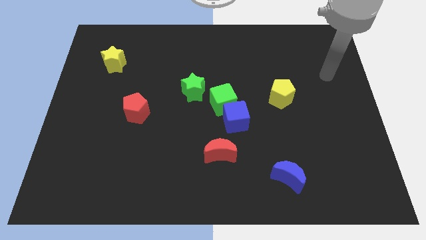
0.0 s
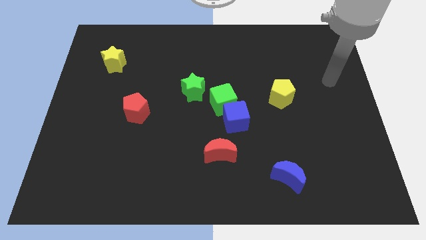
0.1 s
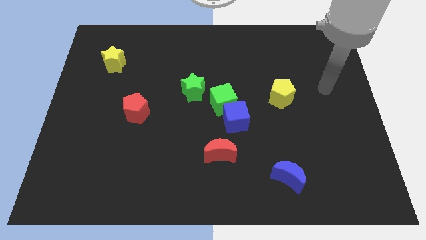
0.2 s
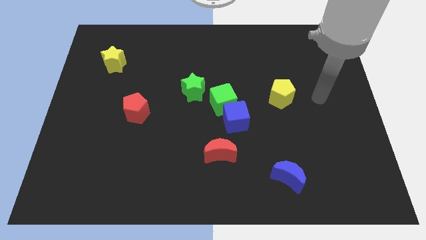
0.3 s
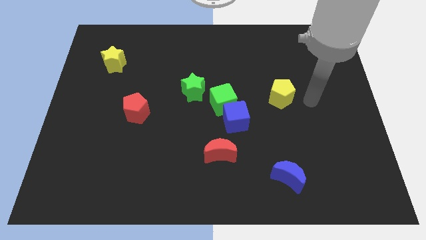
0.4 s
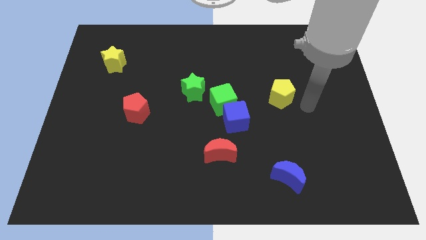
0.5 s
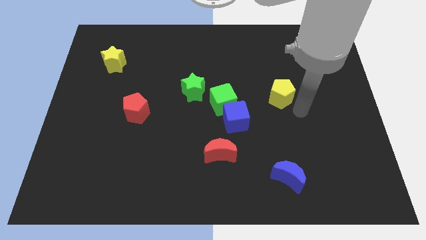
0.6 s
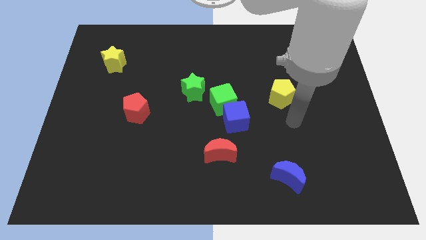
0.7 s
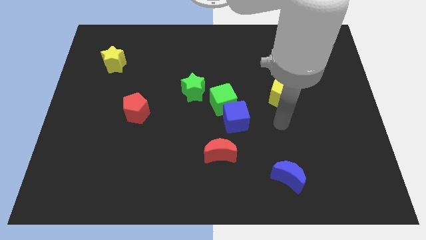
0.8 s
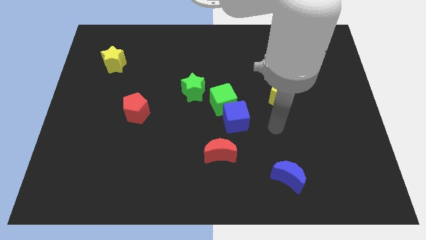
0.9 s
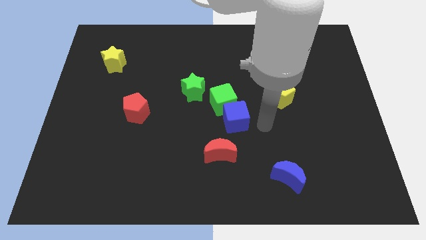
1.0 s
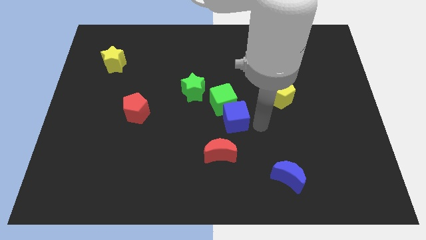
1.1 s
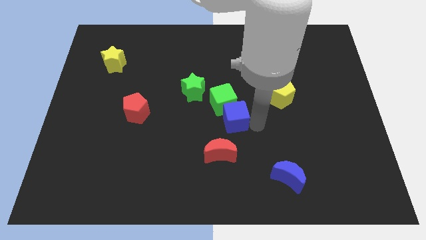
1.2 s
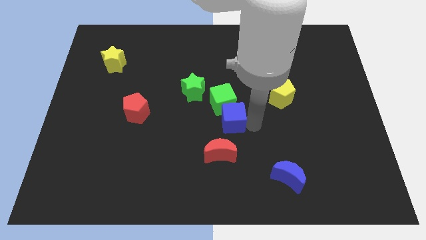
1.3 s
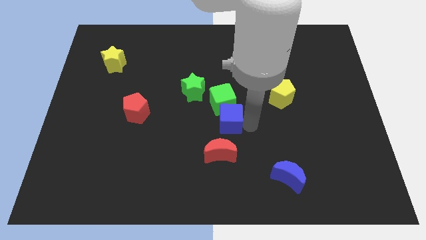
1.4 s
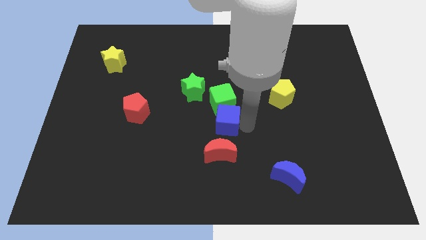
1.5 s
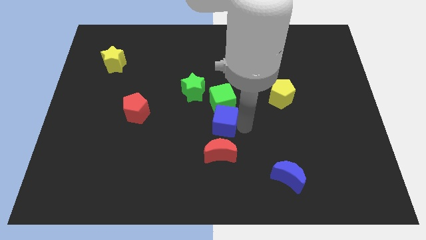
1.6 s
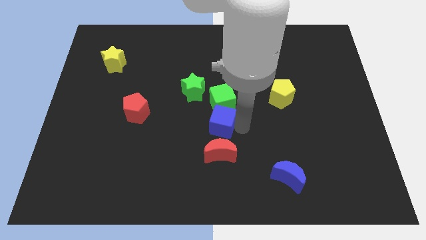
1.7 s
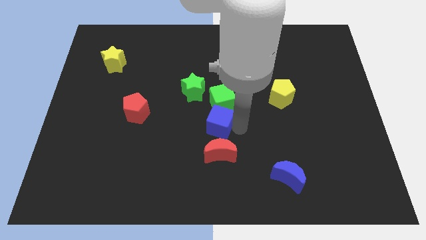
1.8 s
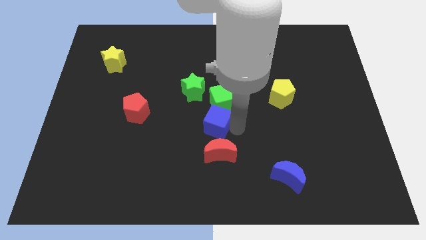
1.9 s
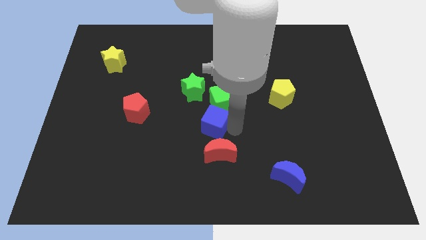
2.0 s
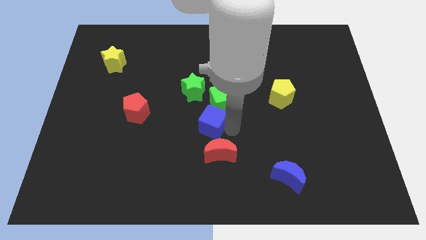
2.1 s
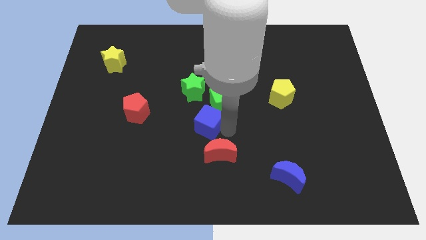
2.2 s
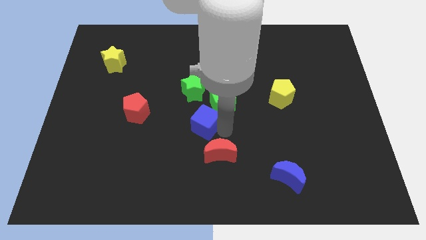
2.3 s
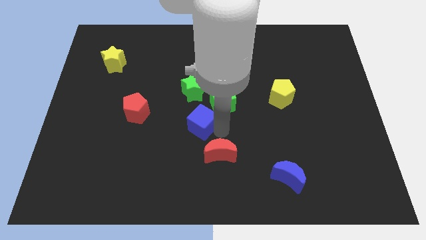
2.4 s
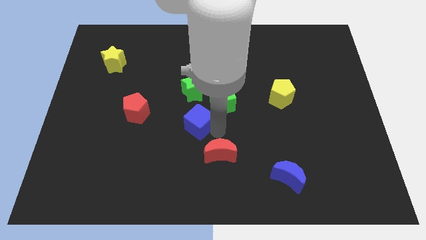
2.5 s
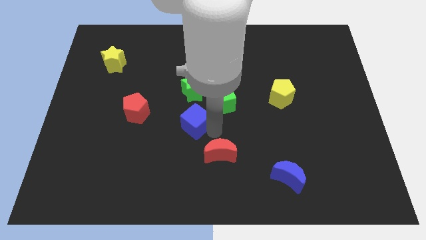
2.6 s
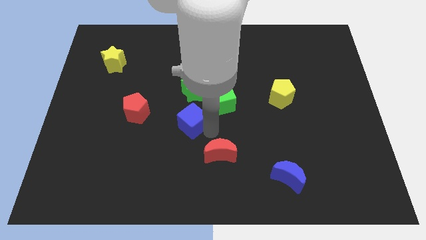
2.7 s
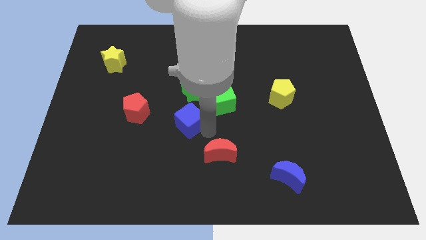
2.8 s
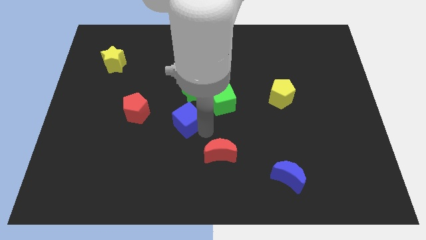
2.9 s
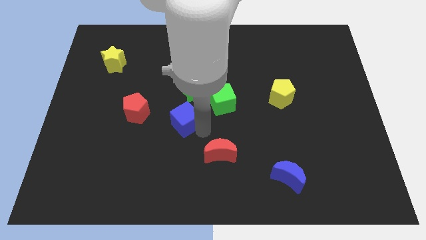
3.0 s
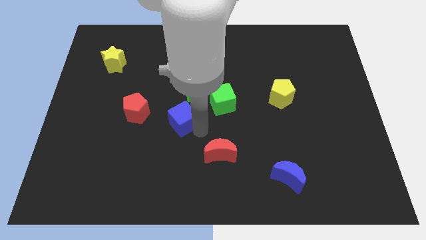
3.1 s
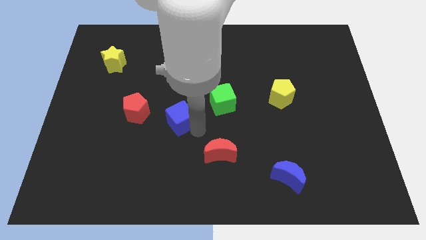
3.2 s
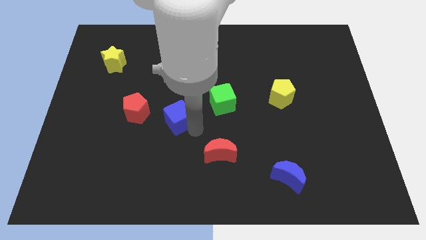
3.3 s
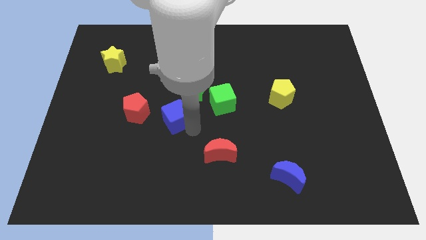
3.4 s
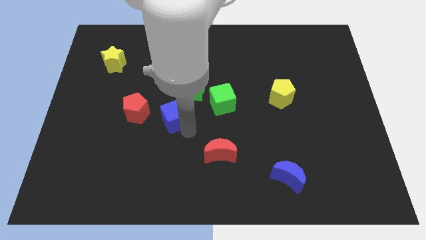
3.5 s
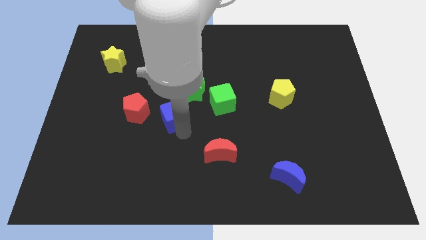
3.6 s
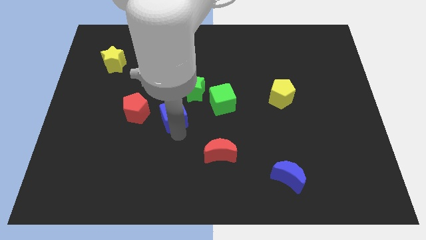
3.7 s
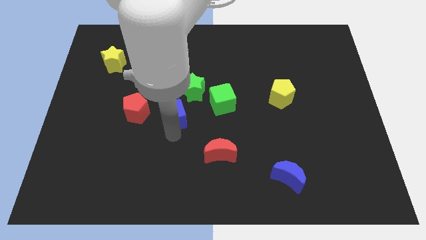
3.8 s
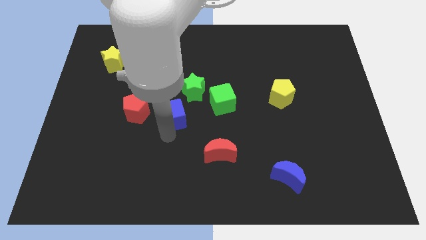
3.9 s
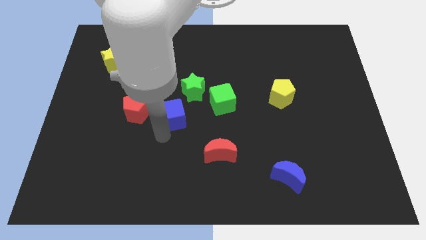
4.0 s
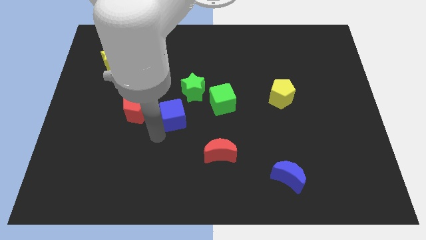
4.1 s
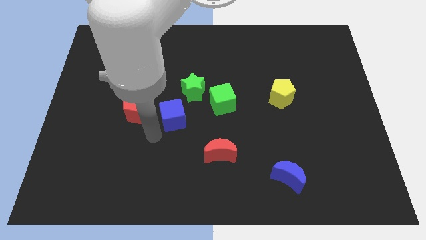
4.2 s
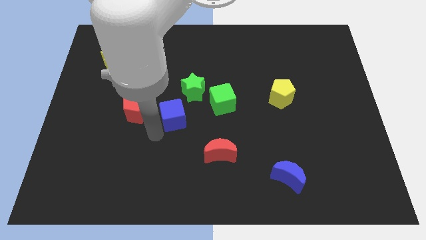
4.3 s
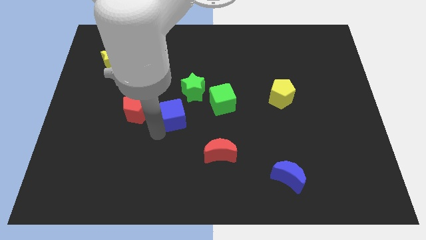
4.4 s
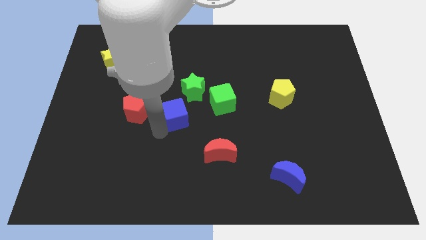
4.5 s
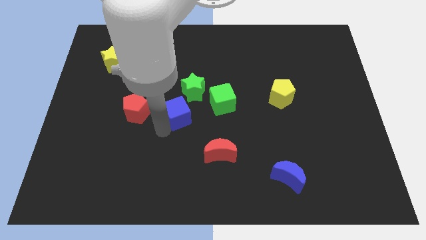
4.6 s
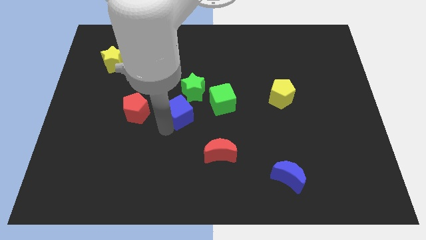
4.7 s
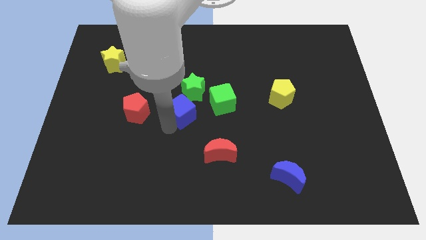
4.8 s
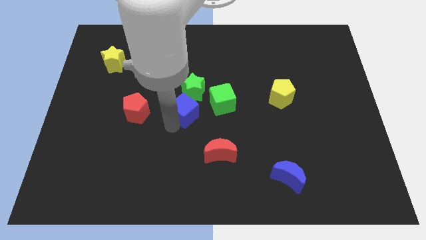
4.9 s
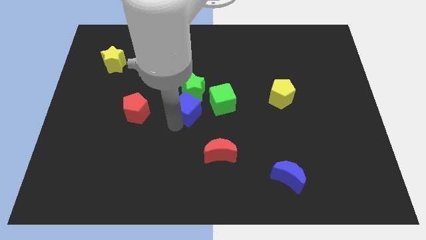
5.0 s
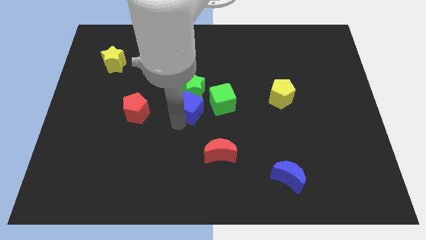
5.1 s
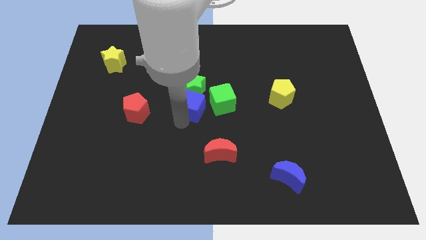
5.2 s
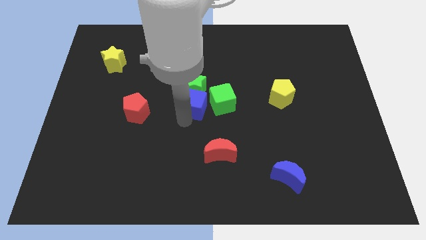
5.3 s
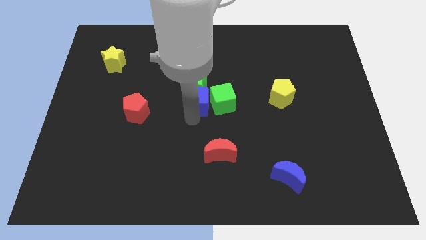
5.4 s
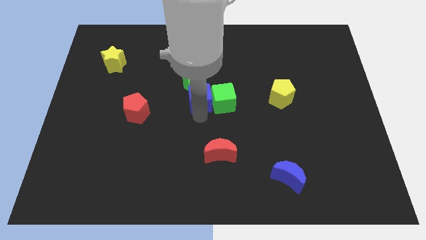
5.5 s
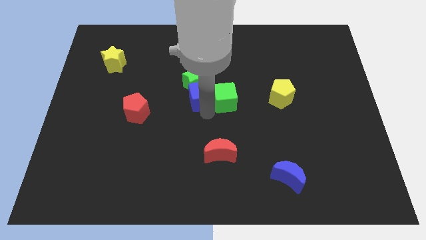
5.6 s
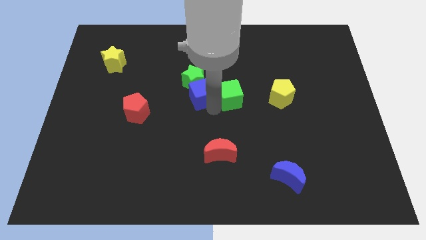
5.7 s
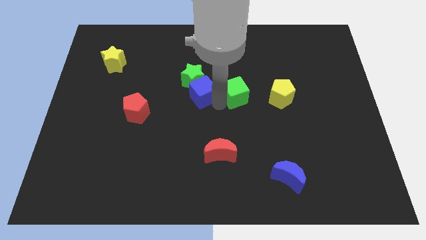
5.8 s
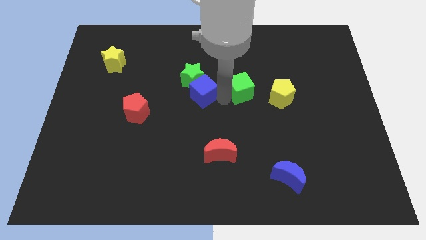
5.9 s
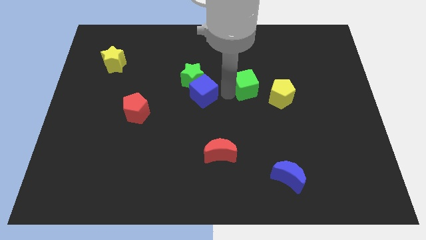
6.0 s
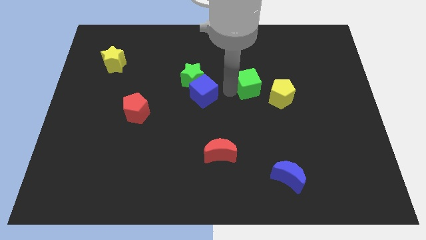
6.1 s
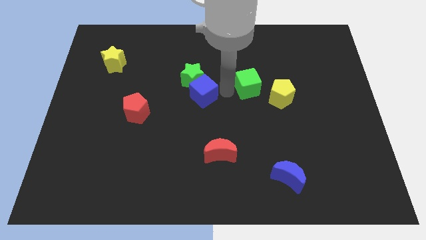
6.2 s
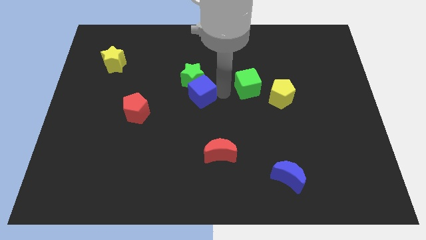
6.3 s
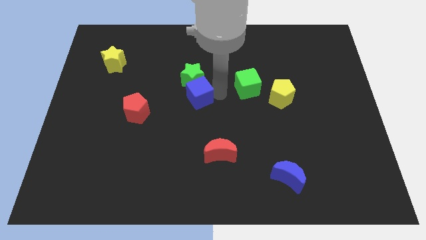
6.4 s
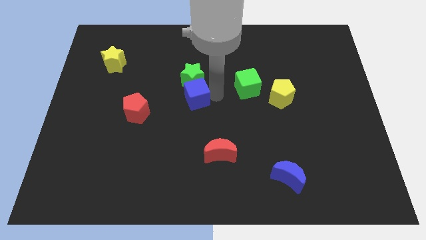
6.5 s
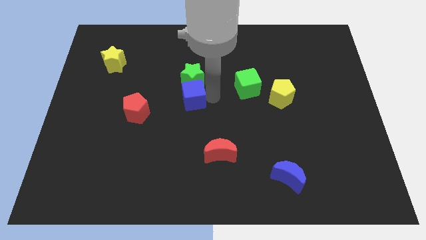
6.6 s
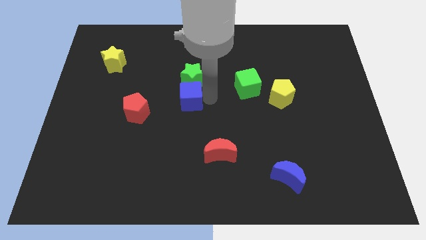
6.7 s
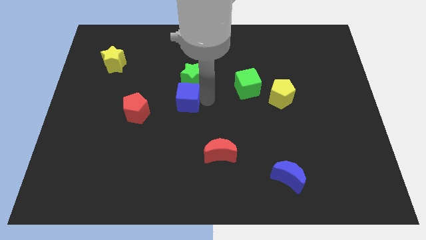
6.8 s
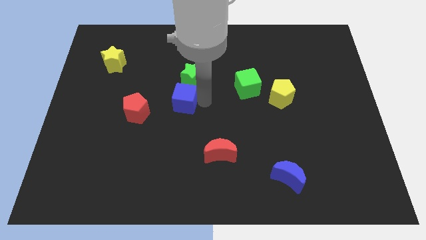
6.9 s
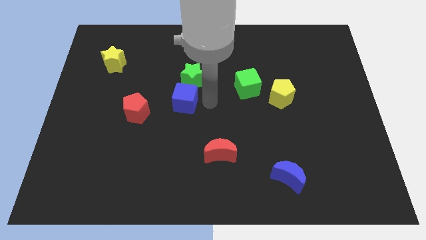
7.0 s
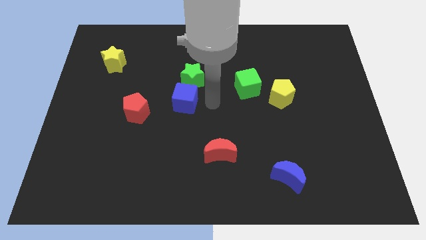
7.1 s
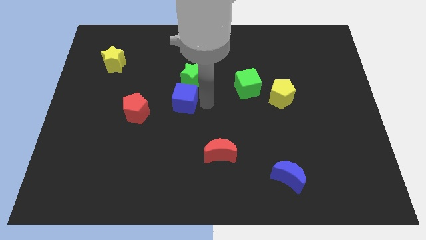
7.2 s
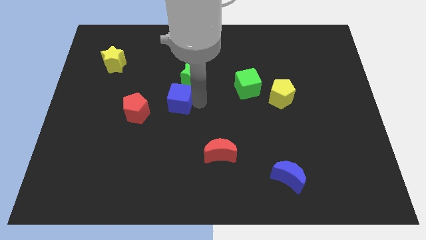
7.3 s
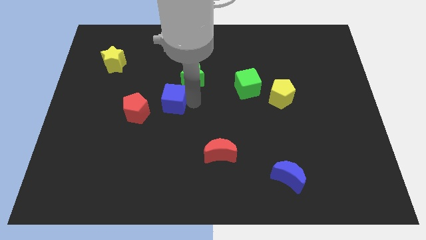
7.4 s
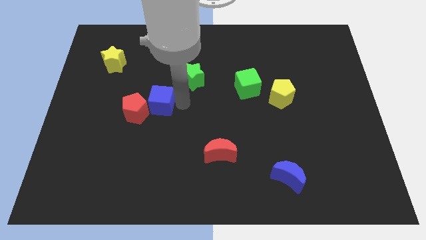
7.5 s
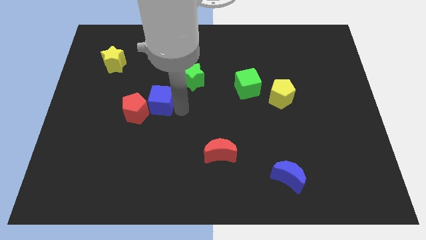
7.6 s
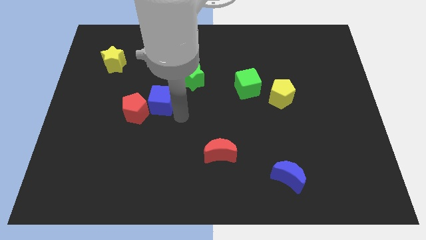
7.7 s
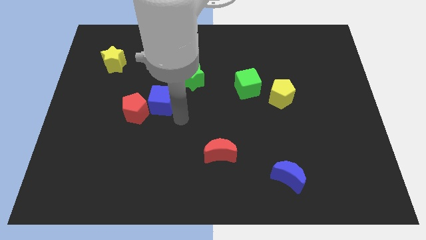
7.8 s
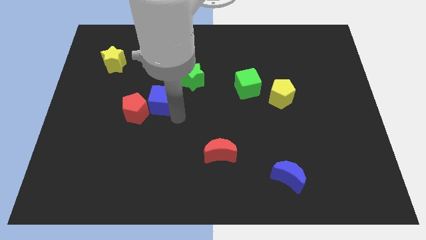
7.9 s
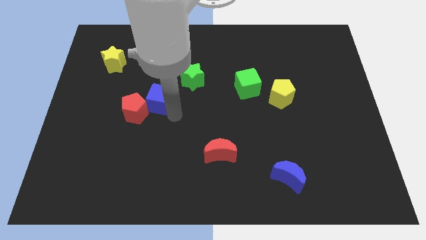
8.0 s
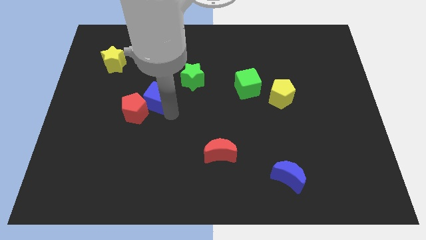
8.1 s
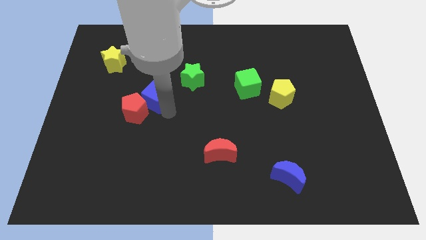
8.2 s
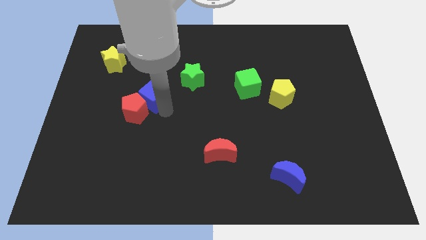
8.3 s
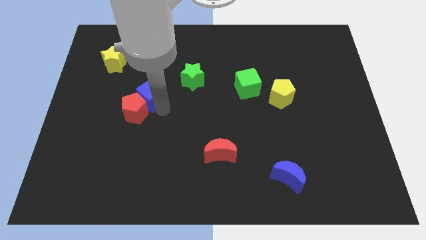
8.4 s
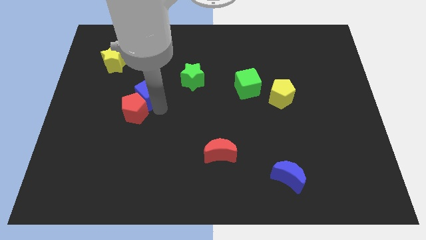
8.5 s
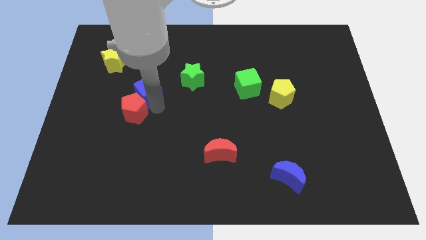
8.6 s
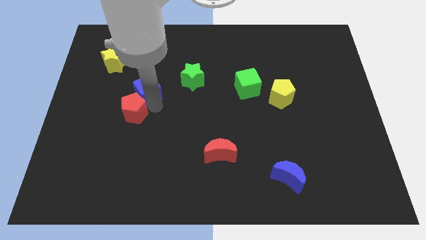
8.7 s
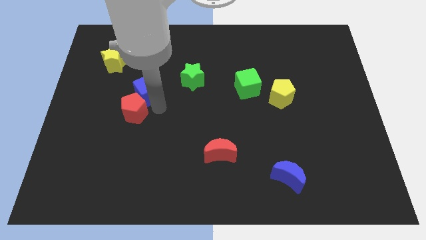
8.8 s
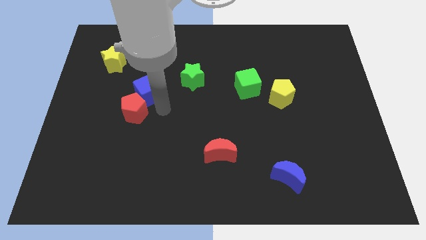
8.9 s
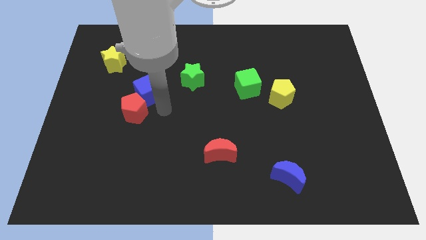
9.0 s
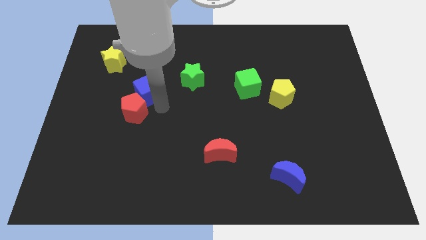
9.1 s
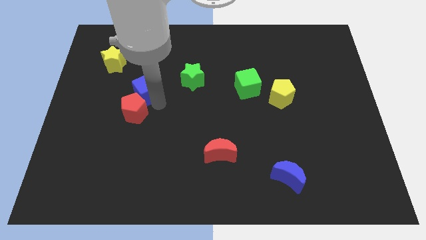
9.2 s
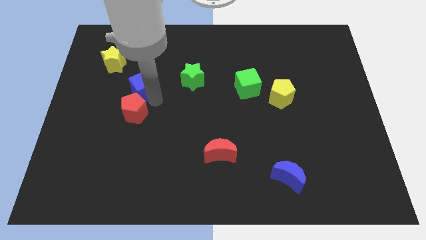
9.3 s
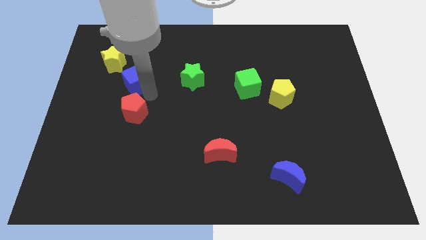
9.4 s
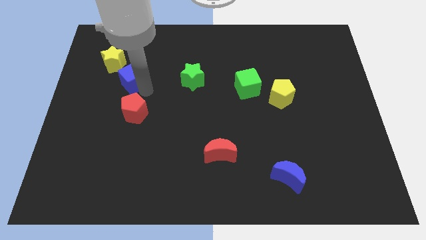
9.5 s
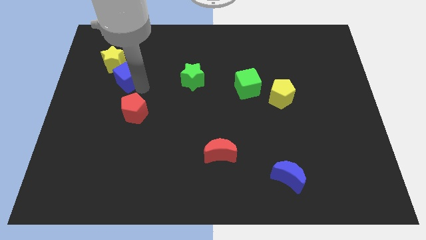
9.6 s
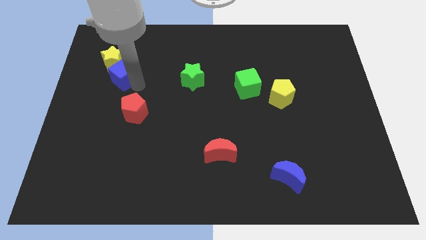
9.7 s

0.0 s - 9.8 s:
push the blue cube towards the yellow star
